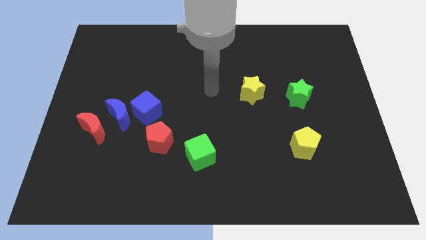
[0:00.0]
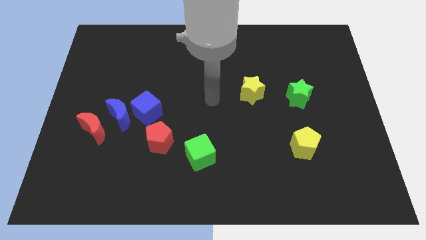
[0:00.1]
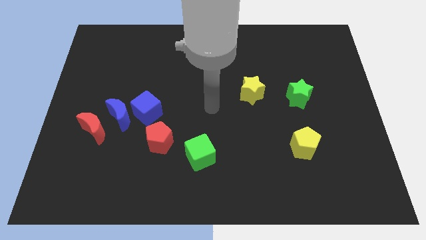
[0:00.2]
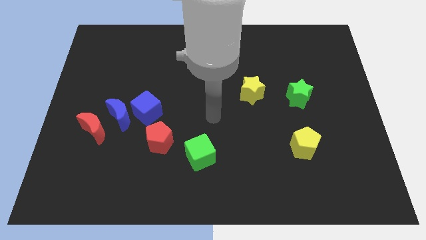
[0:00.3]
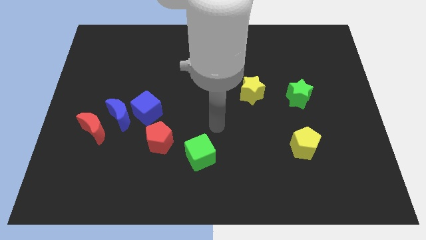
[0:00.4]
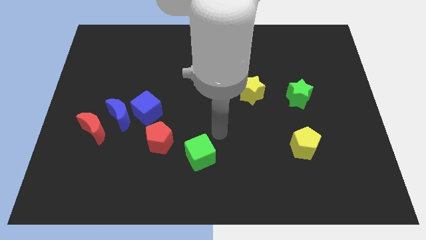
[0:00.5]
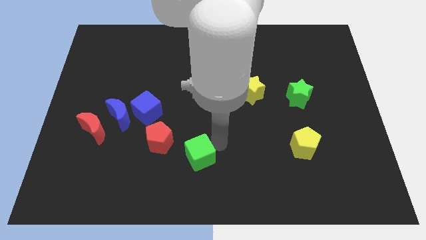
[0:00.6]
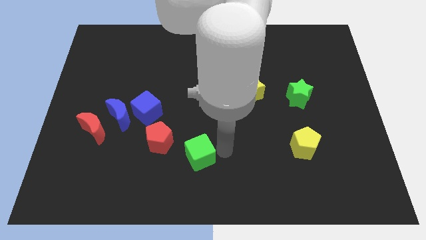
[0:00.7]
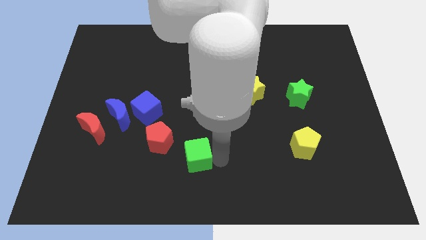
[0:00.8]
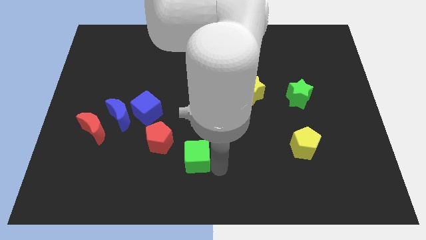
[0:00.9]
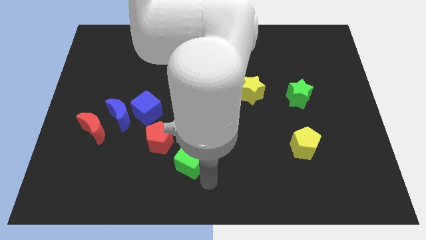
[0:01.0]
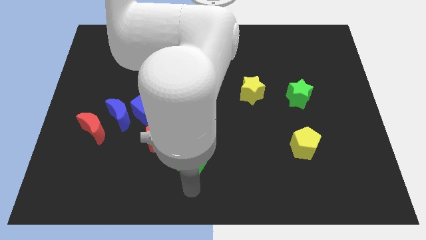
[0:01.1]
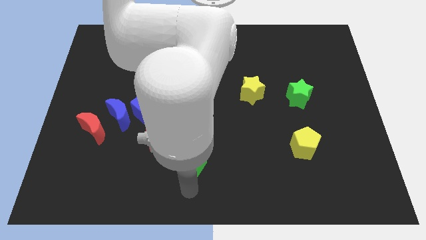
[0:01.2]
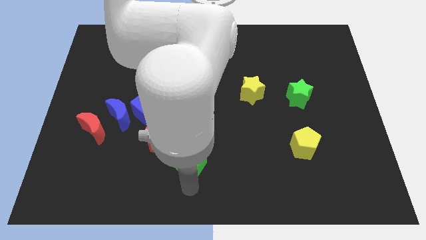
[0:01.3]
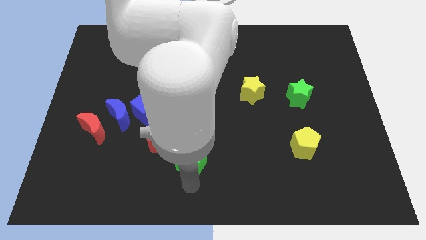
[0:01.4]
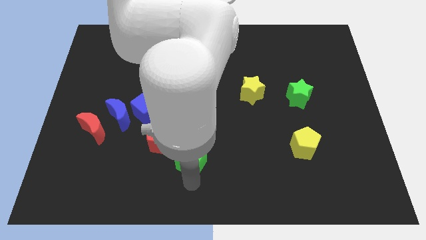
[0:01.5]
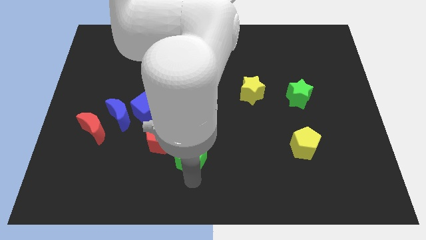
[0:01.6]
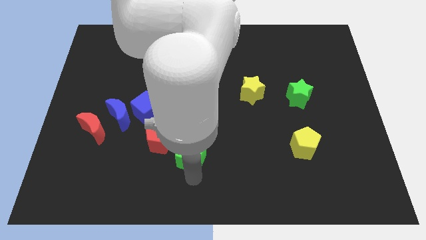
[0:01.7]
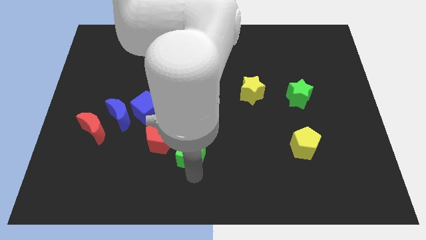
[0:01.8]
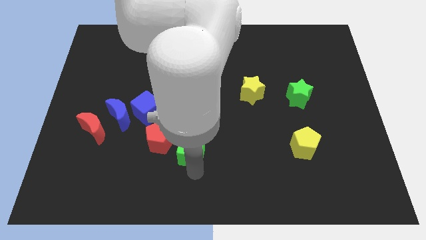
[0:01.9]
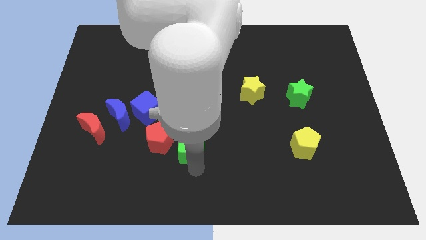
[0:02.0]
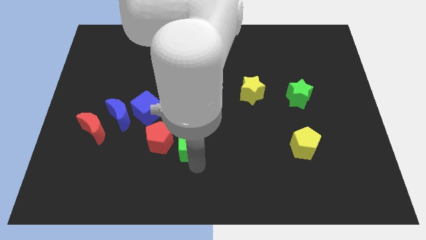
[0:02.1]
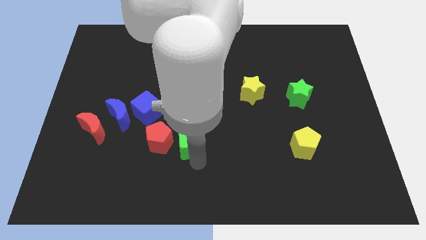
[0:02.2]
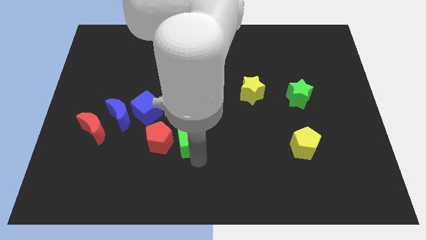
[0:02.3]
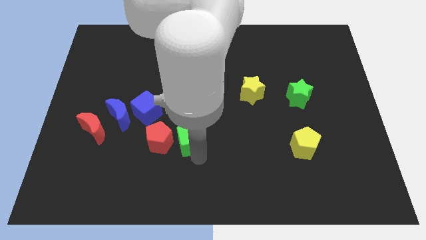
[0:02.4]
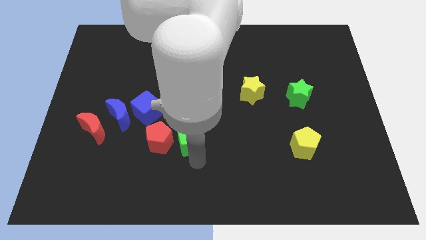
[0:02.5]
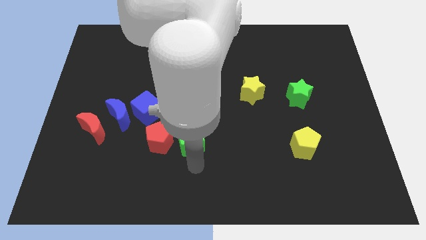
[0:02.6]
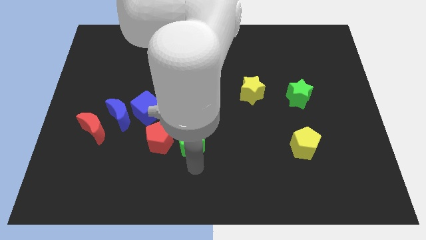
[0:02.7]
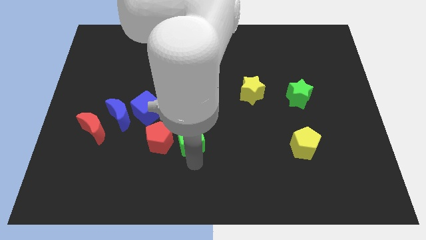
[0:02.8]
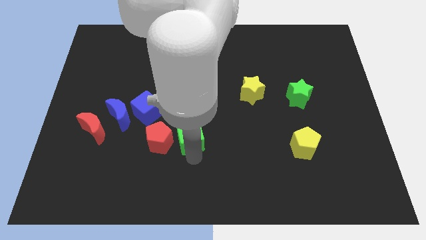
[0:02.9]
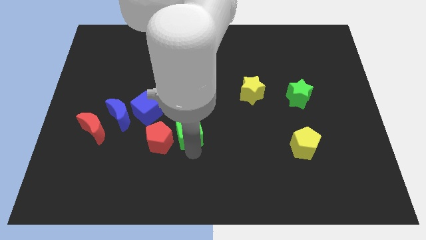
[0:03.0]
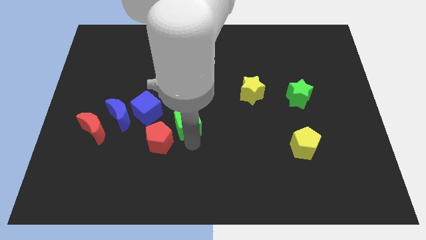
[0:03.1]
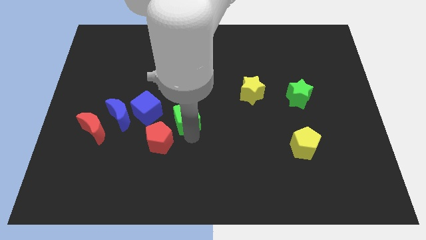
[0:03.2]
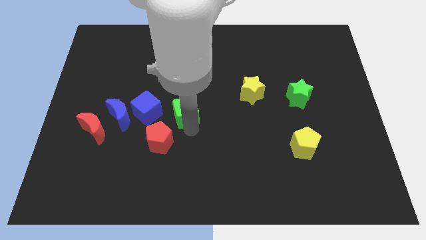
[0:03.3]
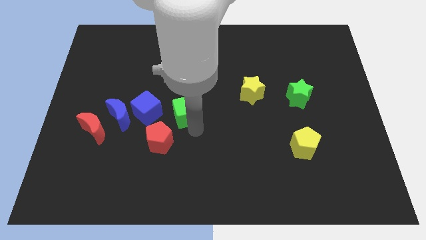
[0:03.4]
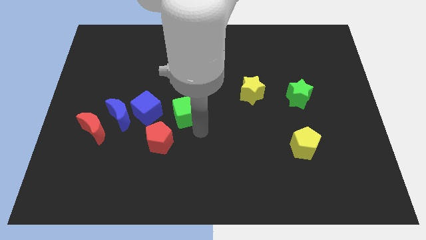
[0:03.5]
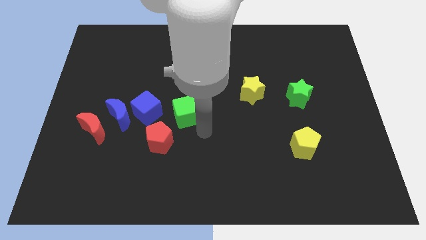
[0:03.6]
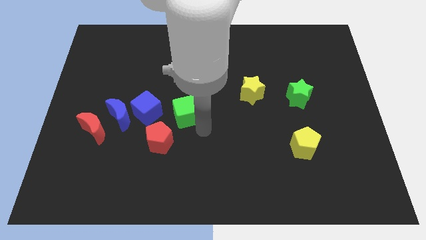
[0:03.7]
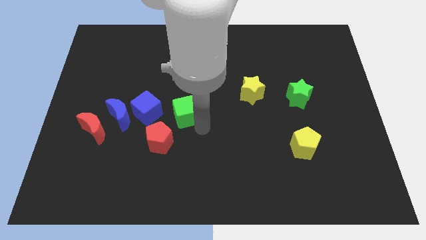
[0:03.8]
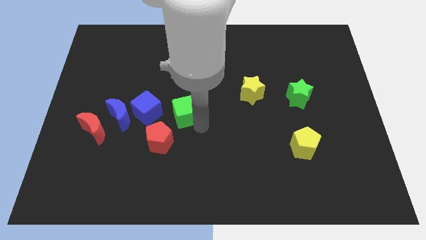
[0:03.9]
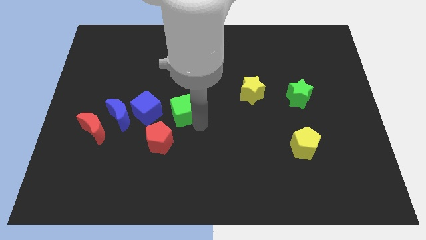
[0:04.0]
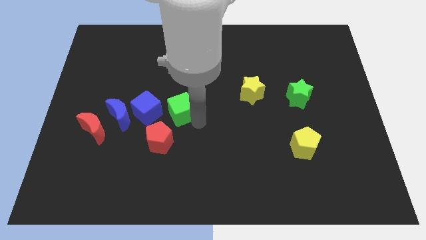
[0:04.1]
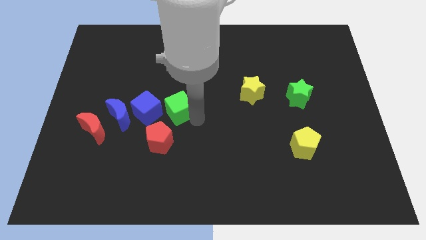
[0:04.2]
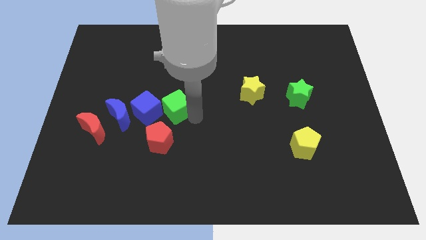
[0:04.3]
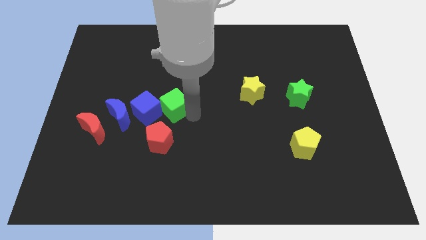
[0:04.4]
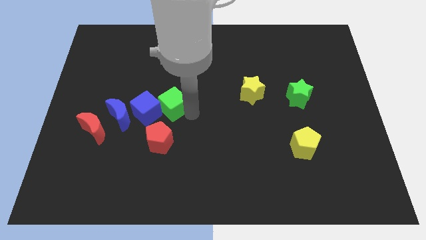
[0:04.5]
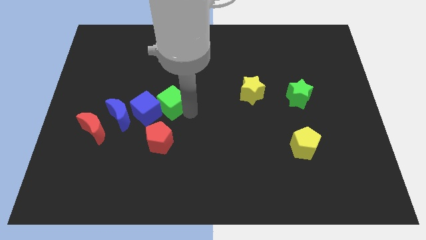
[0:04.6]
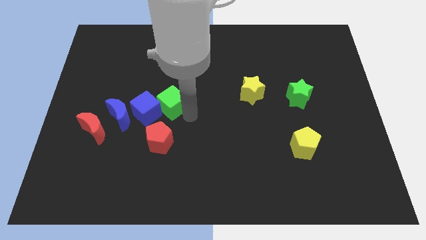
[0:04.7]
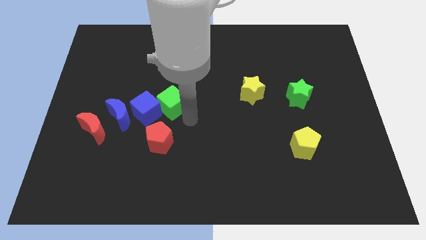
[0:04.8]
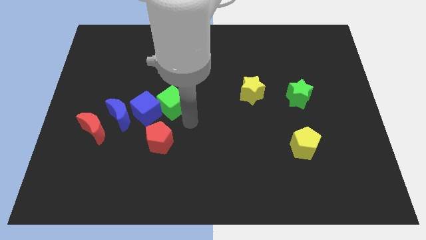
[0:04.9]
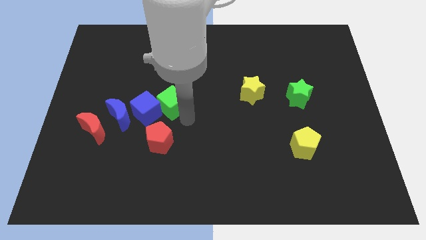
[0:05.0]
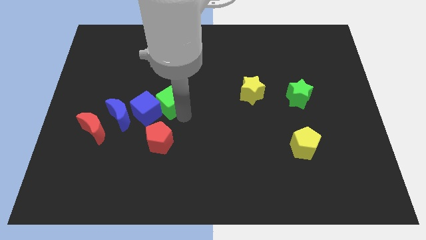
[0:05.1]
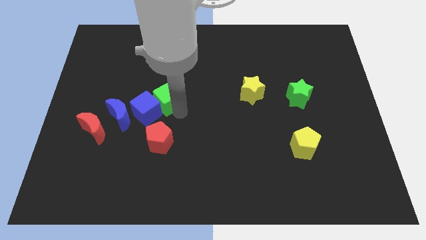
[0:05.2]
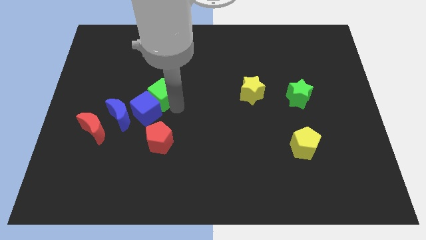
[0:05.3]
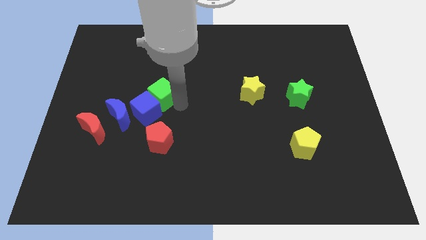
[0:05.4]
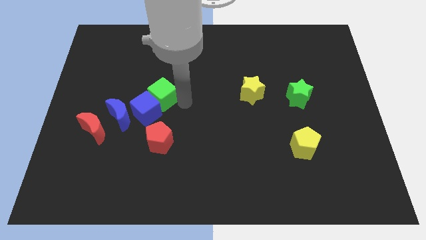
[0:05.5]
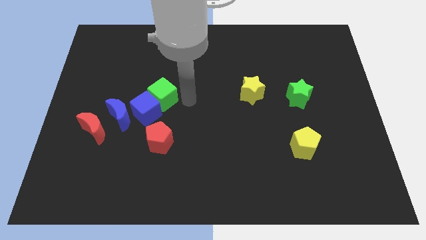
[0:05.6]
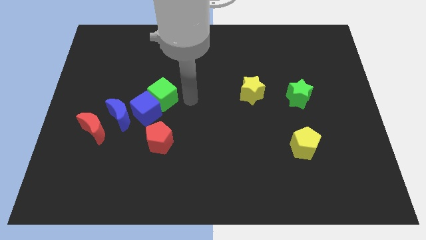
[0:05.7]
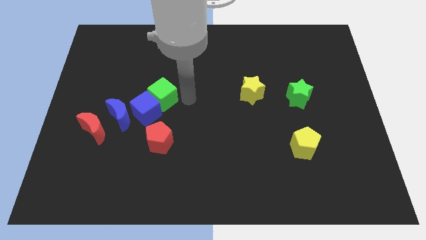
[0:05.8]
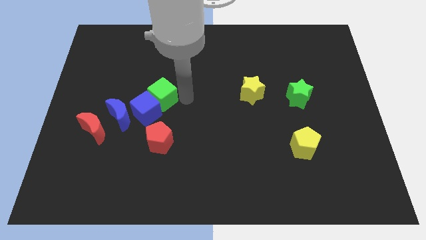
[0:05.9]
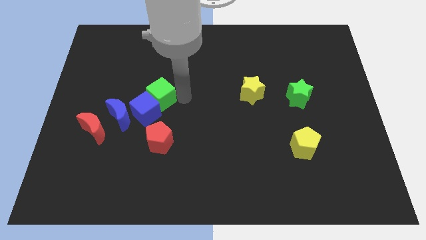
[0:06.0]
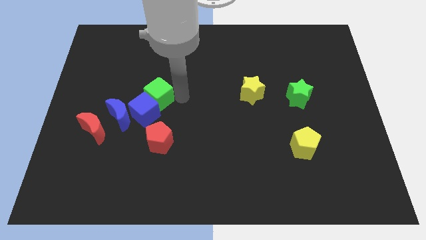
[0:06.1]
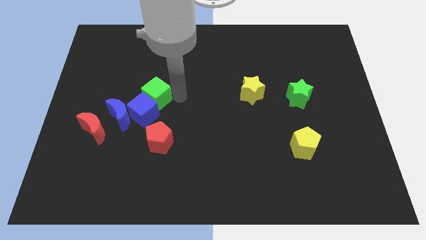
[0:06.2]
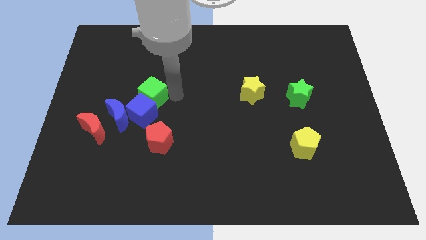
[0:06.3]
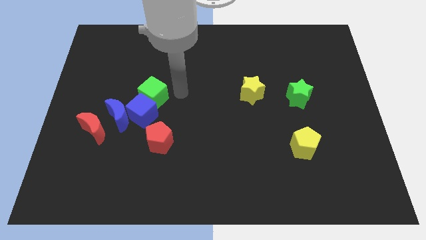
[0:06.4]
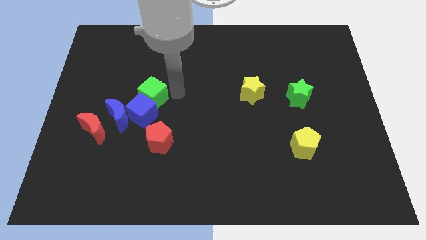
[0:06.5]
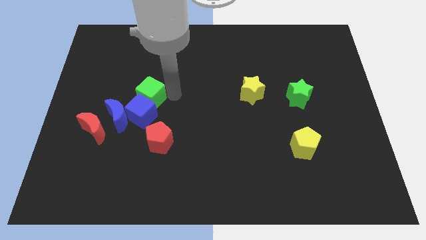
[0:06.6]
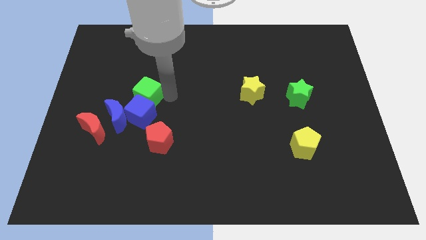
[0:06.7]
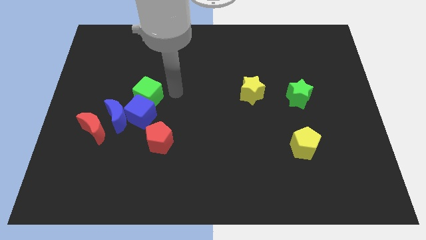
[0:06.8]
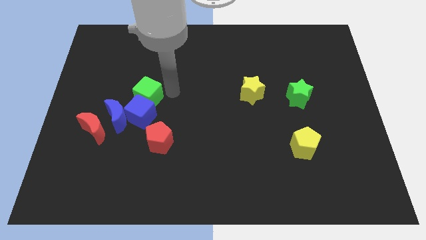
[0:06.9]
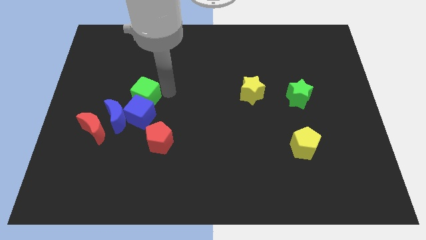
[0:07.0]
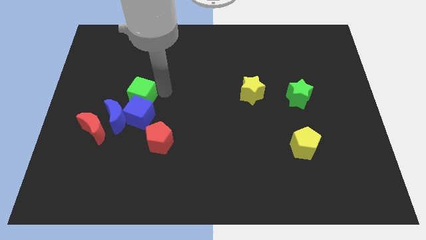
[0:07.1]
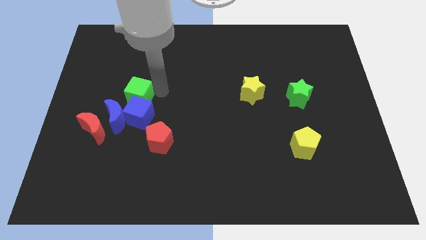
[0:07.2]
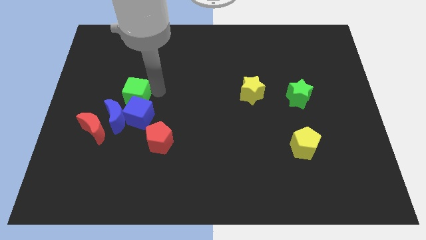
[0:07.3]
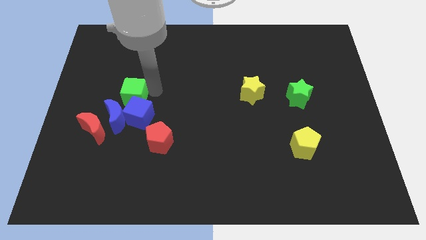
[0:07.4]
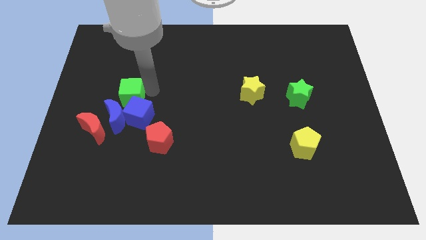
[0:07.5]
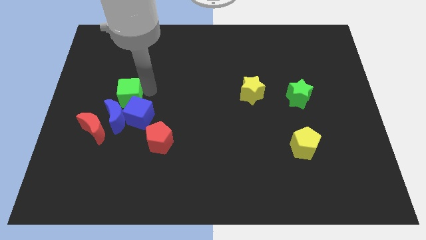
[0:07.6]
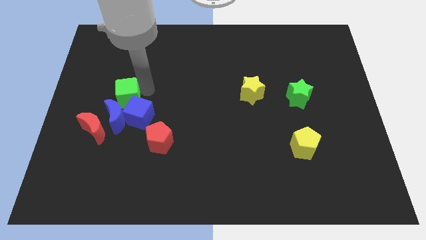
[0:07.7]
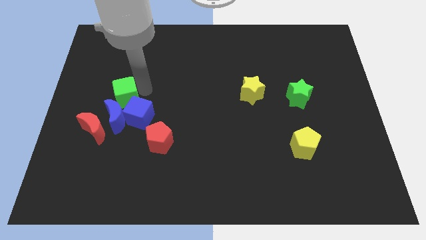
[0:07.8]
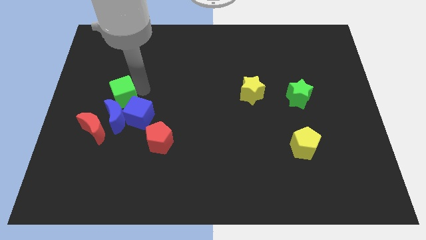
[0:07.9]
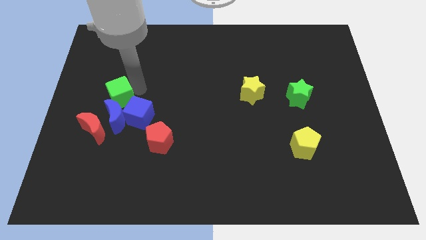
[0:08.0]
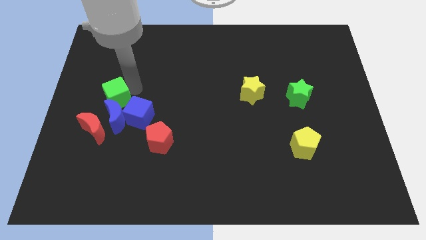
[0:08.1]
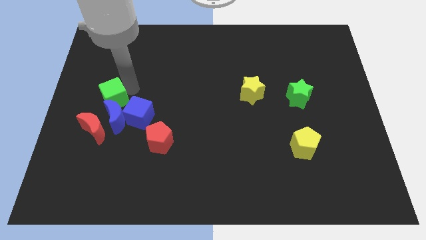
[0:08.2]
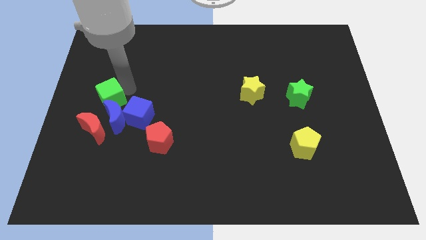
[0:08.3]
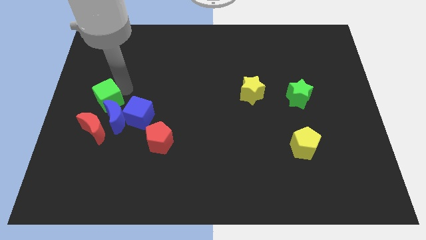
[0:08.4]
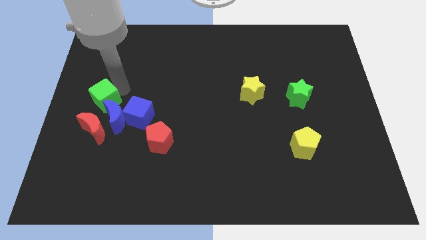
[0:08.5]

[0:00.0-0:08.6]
put the green cube left of the blue cube
